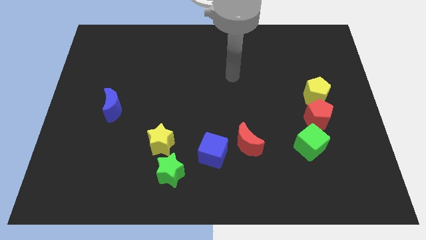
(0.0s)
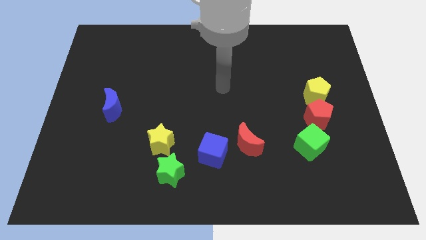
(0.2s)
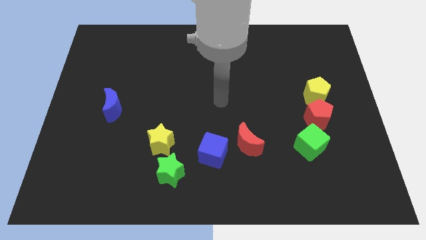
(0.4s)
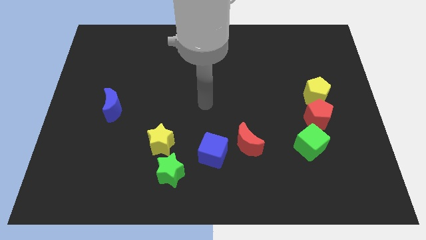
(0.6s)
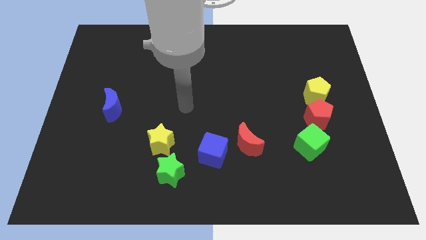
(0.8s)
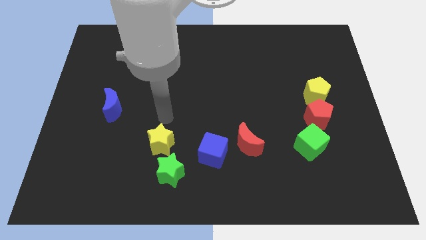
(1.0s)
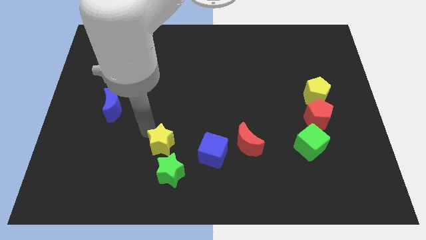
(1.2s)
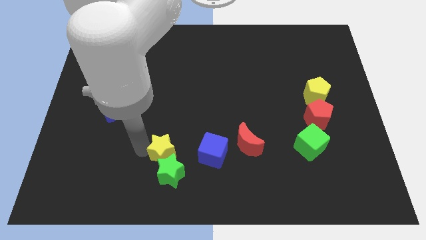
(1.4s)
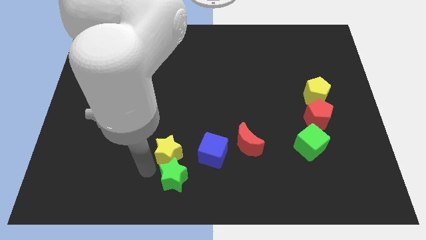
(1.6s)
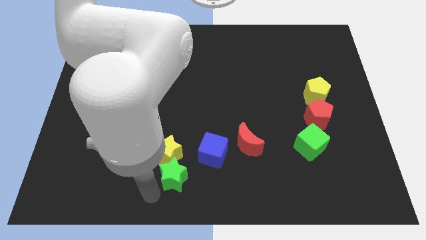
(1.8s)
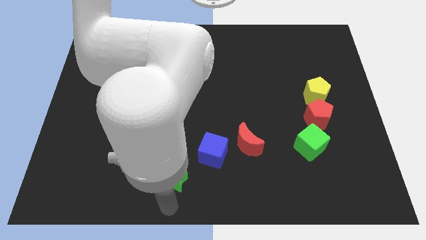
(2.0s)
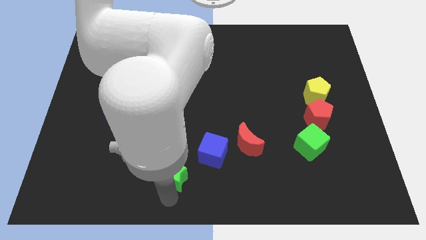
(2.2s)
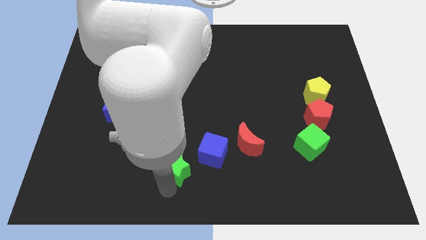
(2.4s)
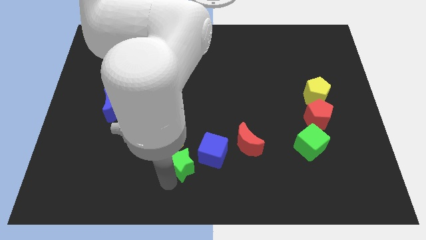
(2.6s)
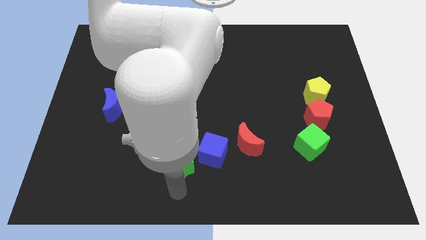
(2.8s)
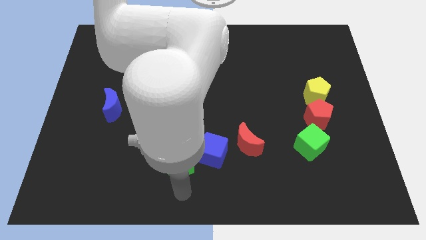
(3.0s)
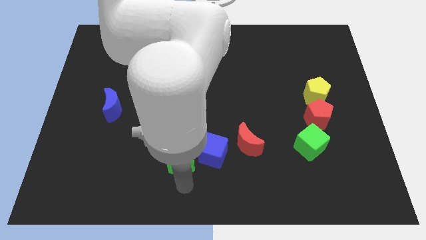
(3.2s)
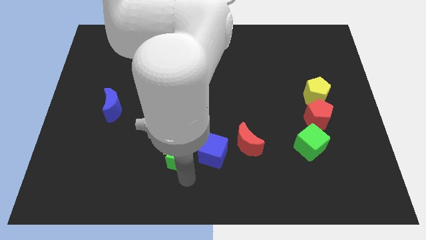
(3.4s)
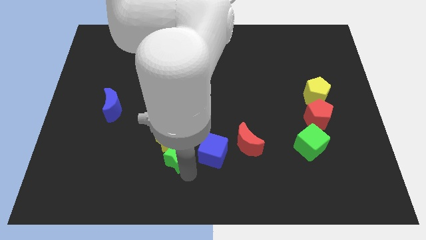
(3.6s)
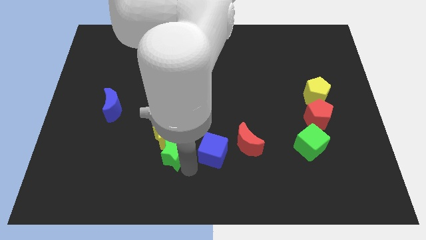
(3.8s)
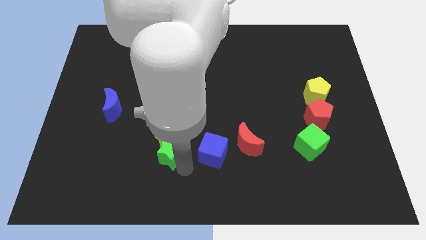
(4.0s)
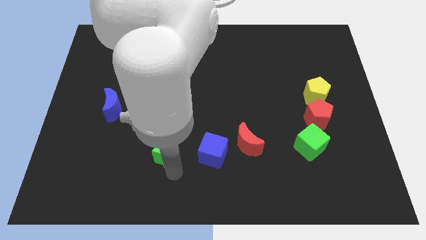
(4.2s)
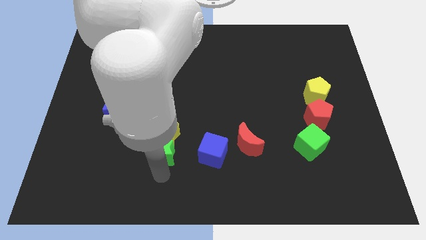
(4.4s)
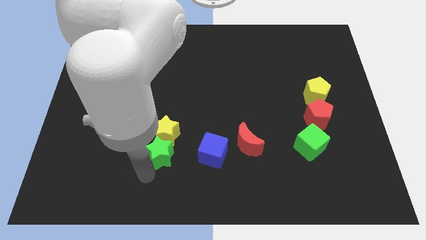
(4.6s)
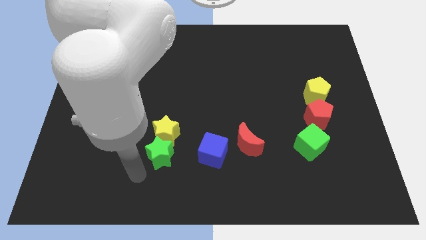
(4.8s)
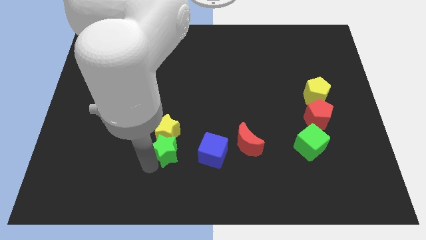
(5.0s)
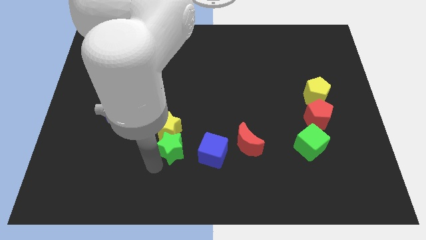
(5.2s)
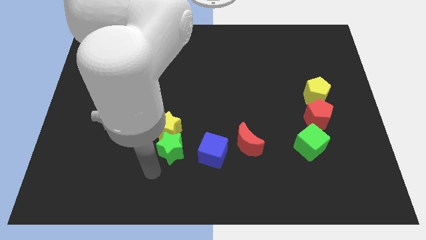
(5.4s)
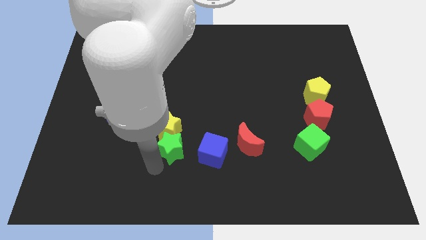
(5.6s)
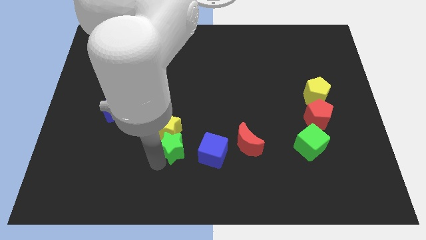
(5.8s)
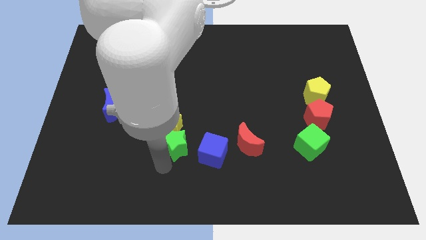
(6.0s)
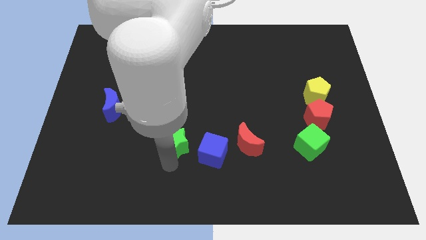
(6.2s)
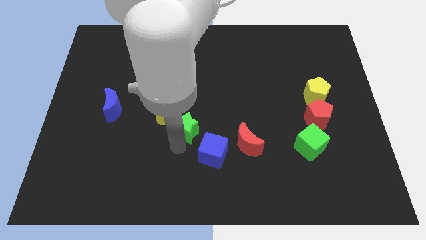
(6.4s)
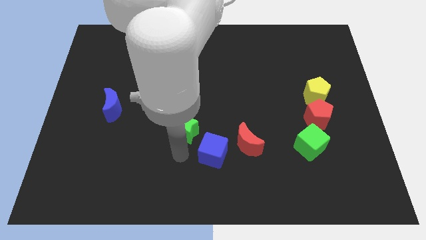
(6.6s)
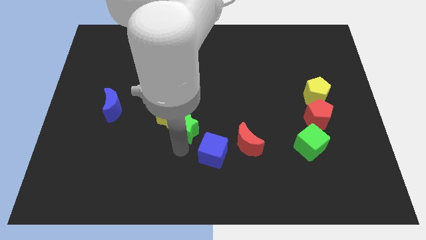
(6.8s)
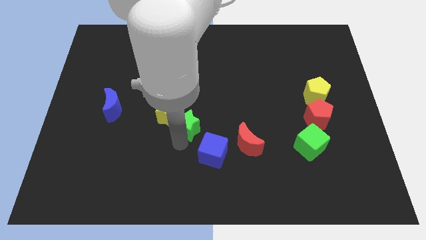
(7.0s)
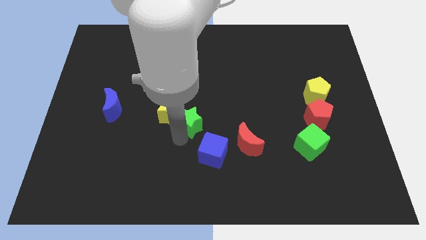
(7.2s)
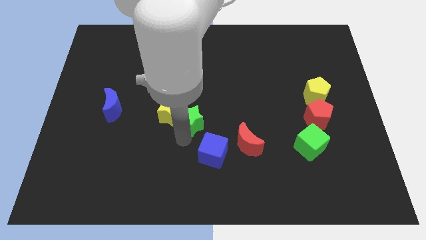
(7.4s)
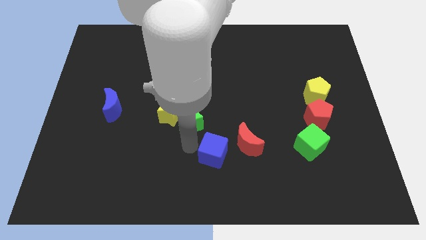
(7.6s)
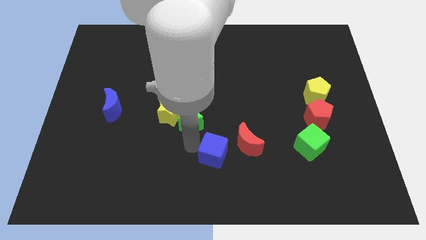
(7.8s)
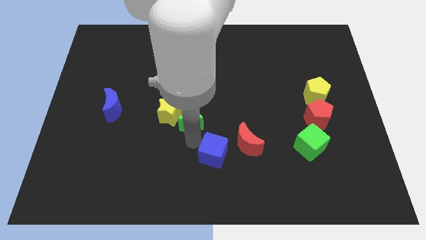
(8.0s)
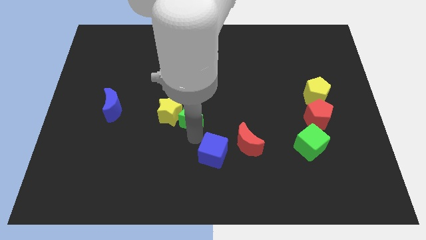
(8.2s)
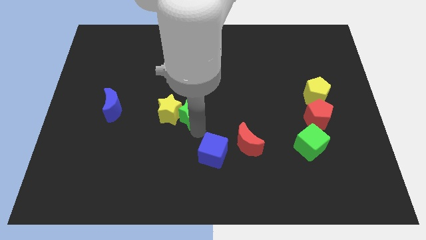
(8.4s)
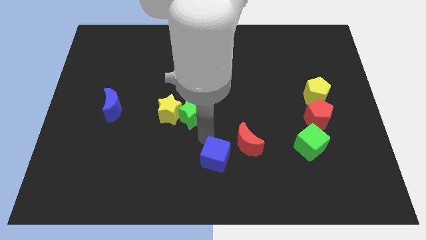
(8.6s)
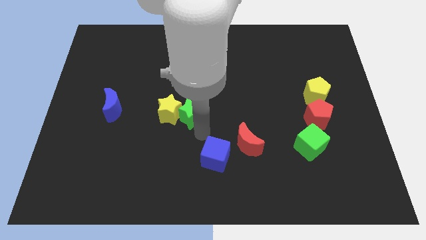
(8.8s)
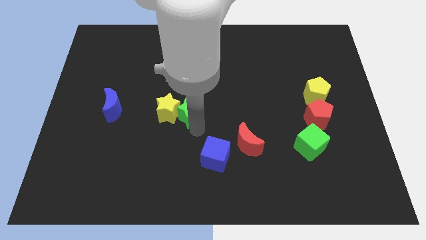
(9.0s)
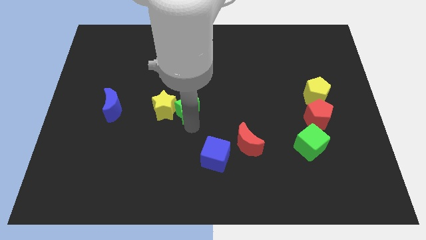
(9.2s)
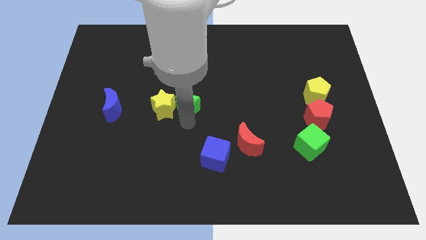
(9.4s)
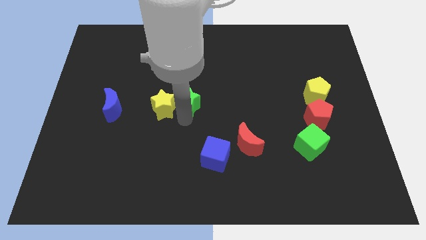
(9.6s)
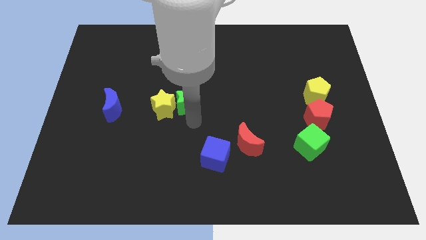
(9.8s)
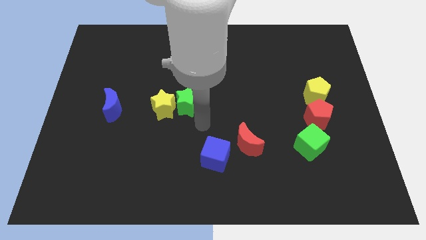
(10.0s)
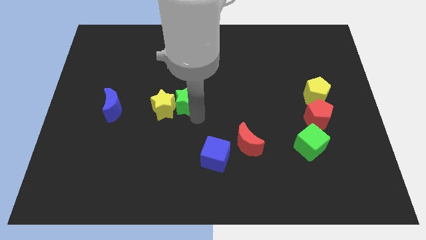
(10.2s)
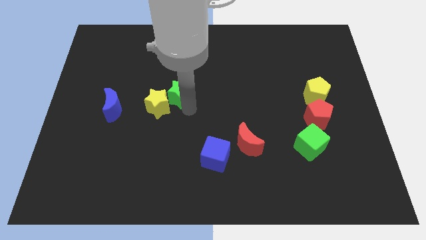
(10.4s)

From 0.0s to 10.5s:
move the green star up

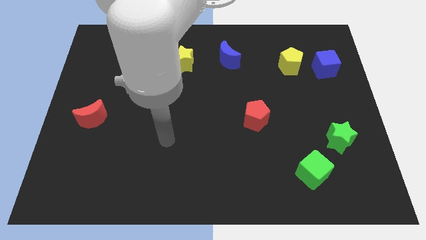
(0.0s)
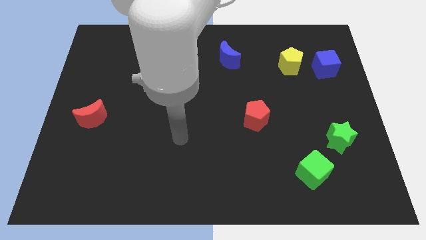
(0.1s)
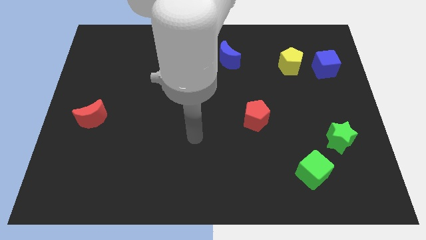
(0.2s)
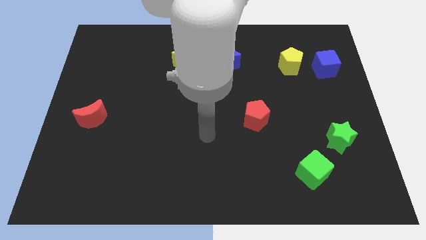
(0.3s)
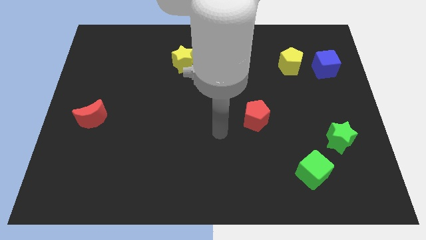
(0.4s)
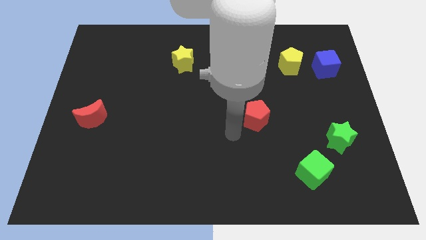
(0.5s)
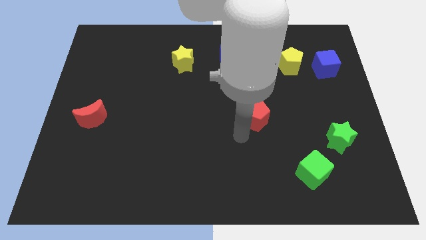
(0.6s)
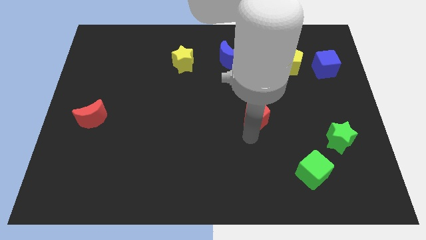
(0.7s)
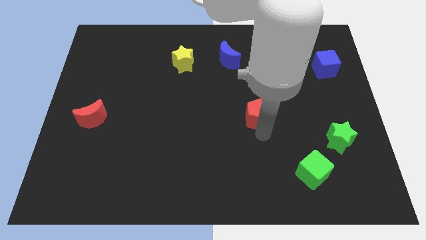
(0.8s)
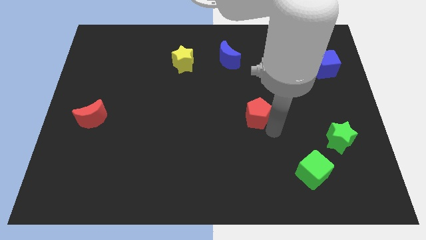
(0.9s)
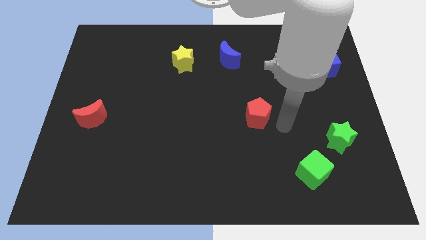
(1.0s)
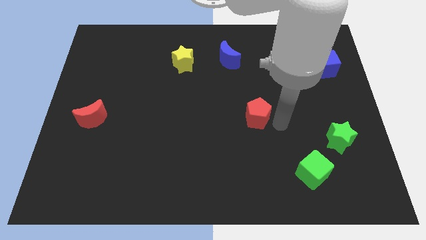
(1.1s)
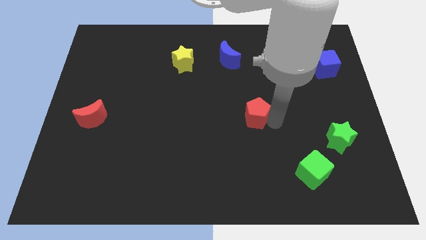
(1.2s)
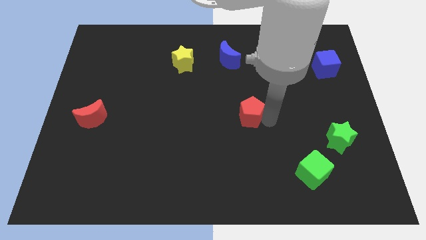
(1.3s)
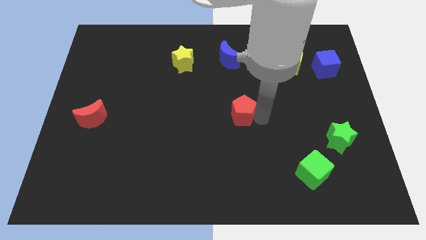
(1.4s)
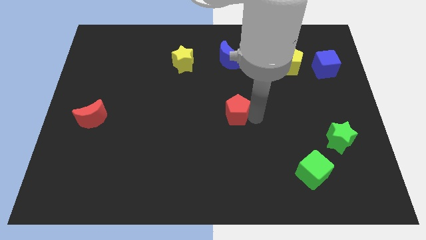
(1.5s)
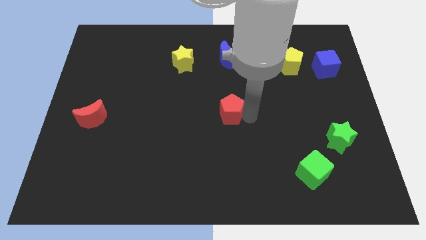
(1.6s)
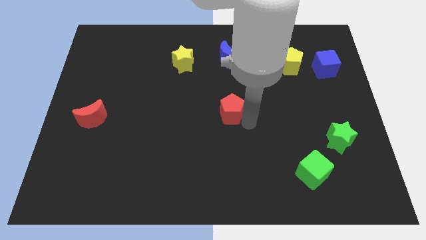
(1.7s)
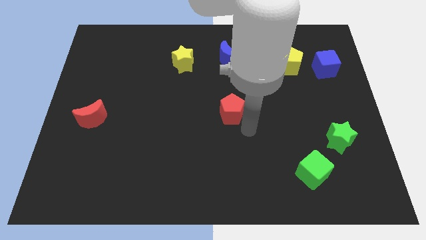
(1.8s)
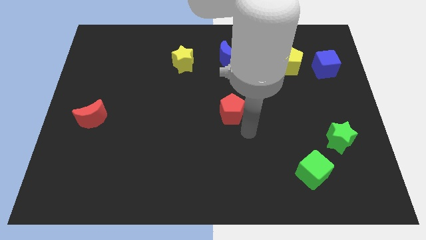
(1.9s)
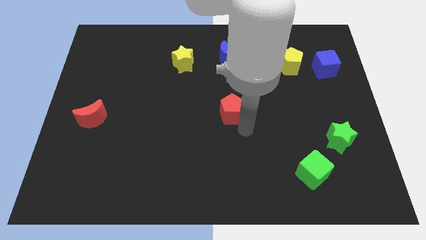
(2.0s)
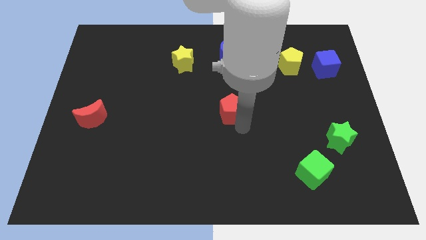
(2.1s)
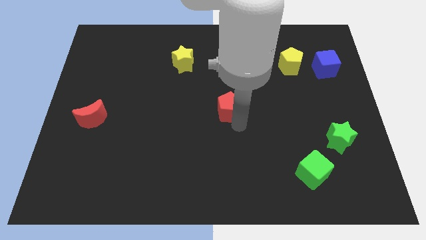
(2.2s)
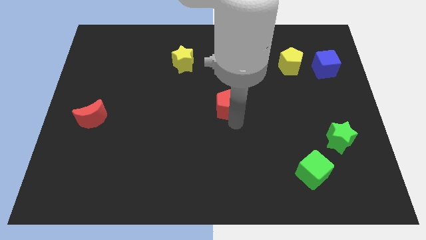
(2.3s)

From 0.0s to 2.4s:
slide the red pentagon diagonally upwards and left somewhat
